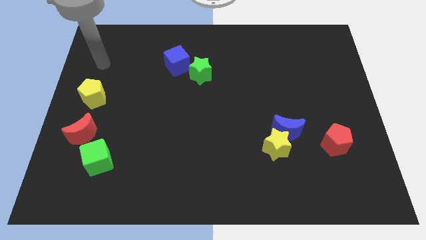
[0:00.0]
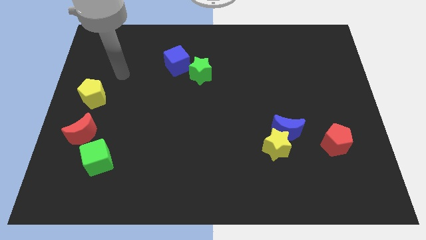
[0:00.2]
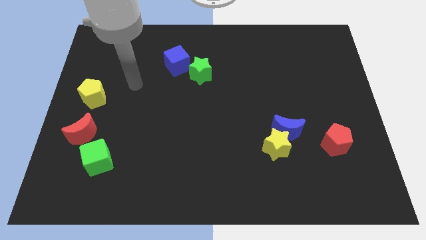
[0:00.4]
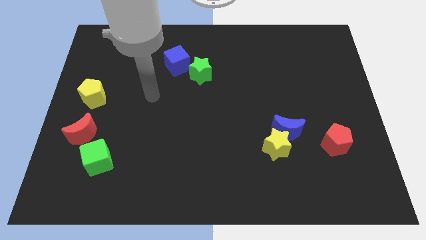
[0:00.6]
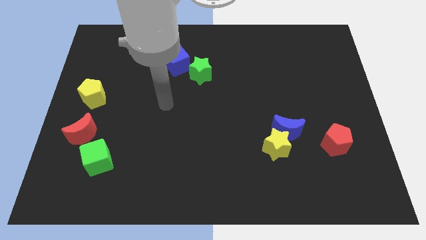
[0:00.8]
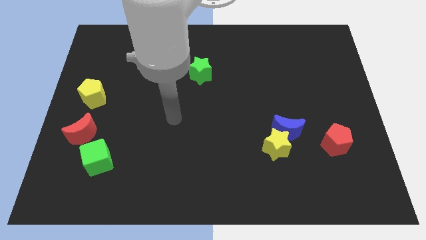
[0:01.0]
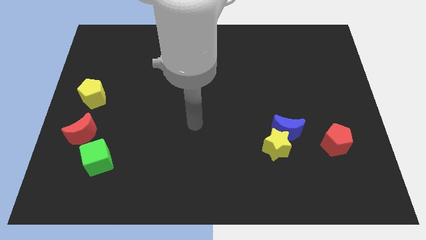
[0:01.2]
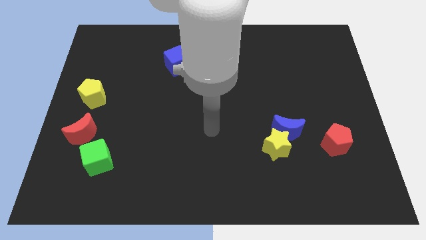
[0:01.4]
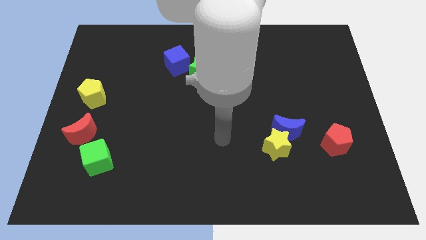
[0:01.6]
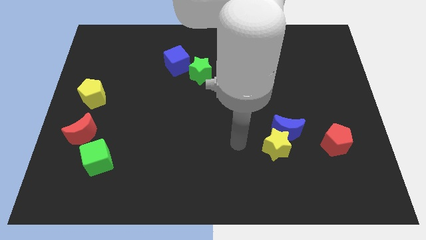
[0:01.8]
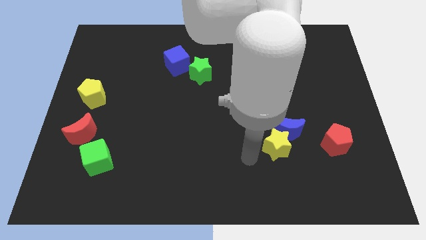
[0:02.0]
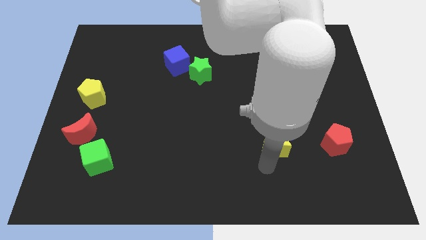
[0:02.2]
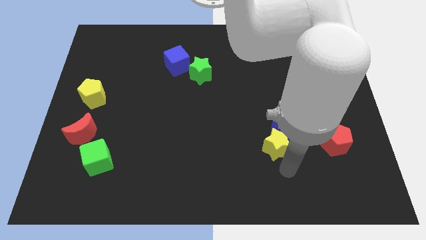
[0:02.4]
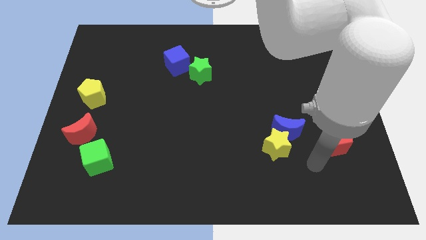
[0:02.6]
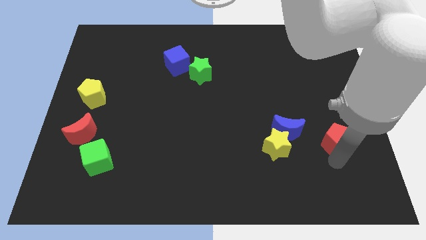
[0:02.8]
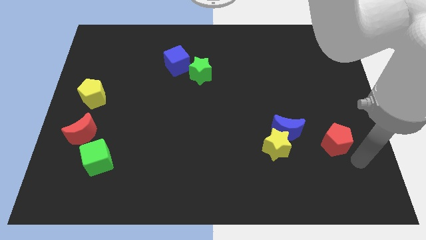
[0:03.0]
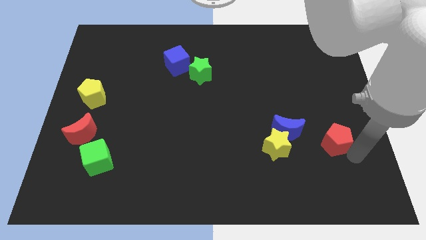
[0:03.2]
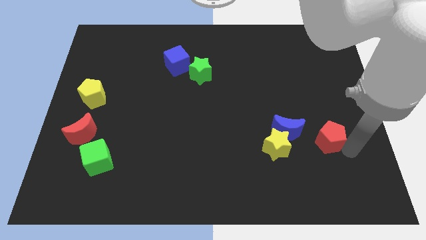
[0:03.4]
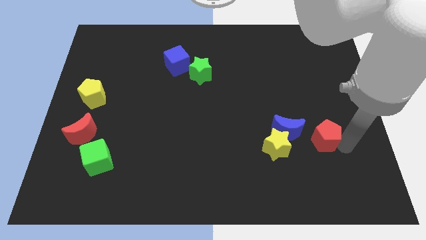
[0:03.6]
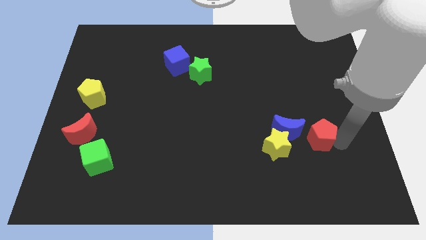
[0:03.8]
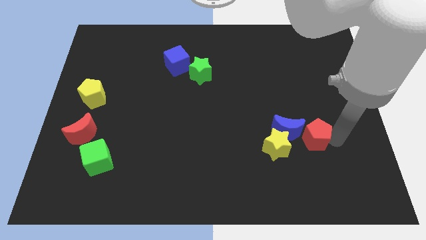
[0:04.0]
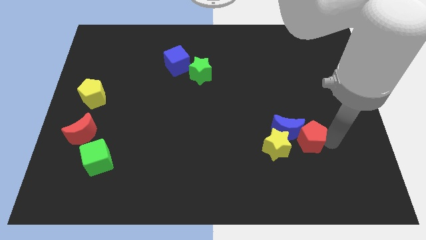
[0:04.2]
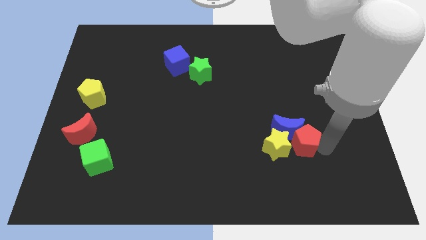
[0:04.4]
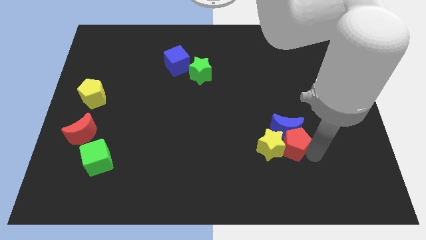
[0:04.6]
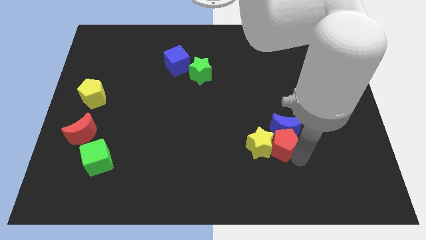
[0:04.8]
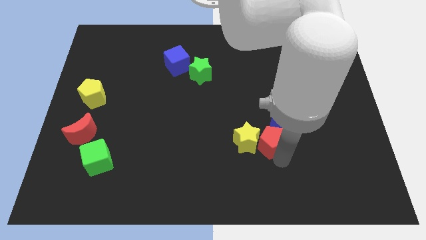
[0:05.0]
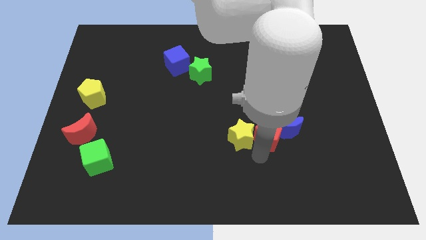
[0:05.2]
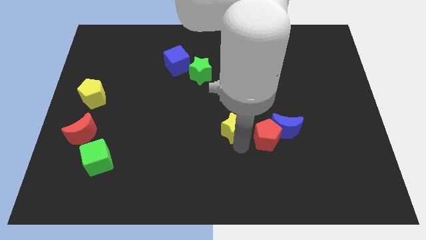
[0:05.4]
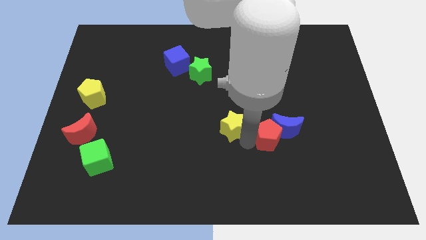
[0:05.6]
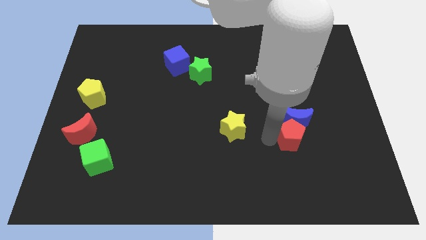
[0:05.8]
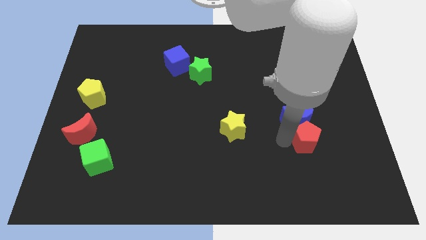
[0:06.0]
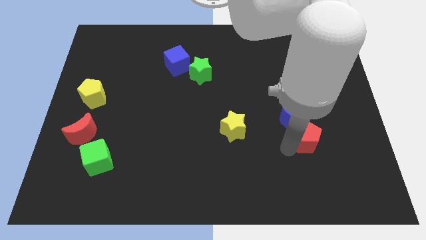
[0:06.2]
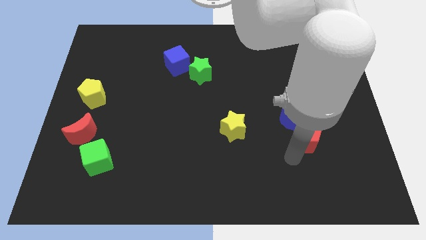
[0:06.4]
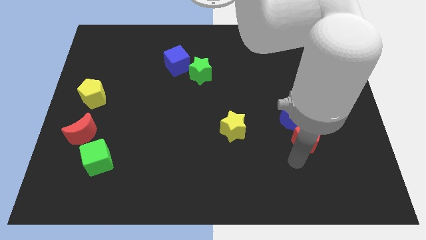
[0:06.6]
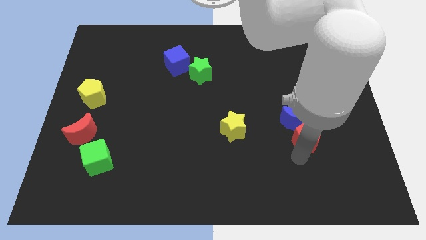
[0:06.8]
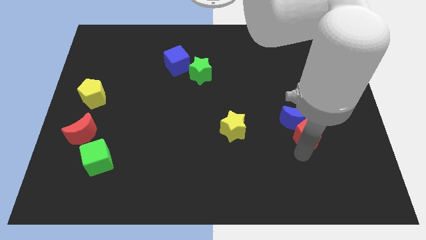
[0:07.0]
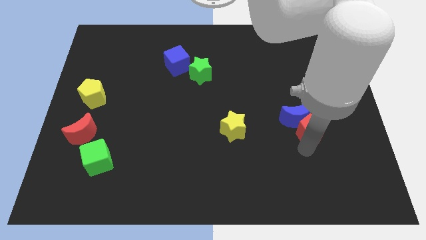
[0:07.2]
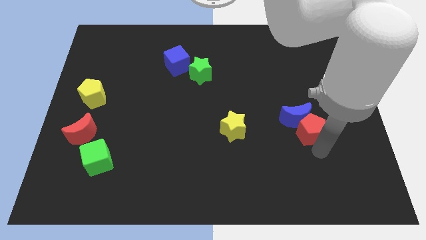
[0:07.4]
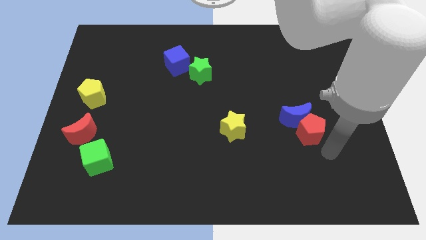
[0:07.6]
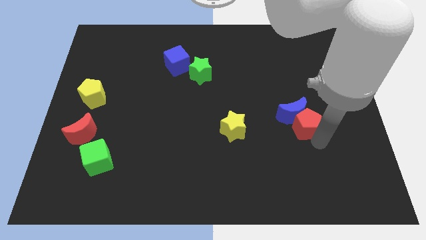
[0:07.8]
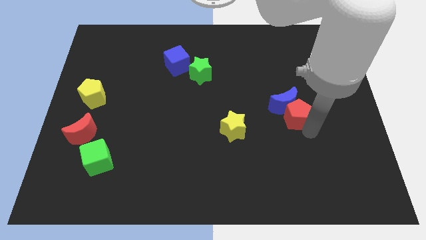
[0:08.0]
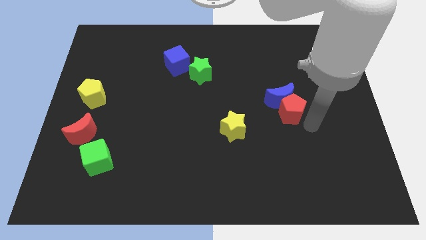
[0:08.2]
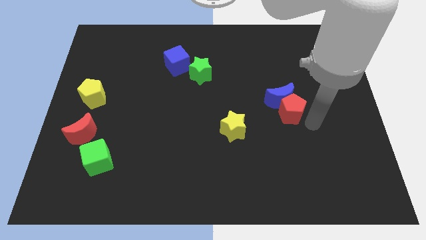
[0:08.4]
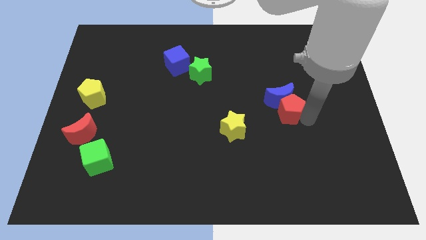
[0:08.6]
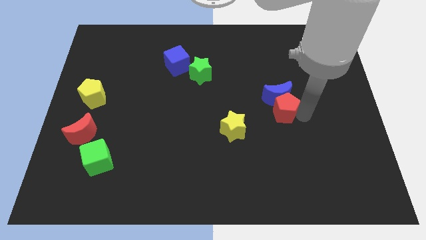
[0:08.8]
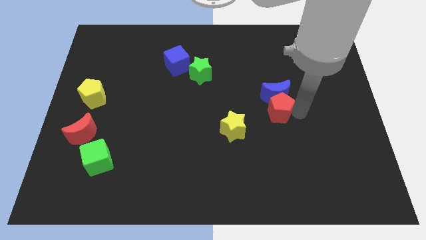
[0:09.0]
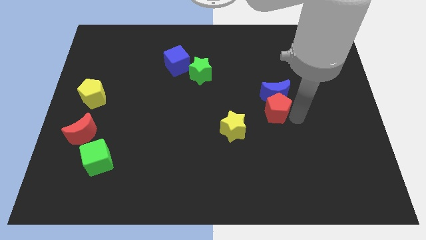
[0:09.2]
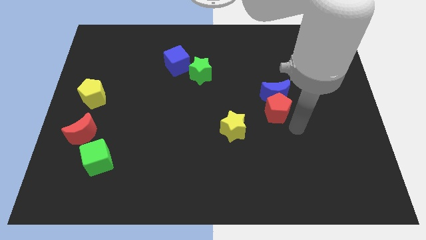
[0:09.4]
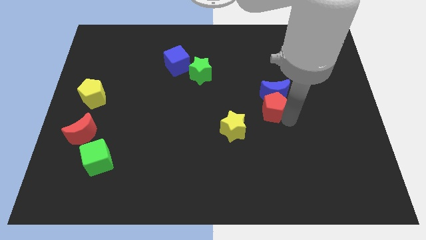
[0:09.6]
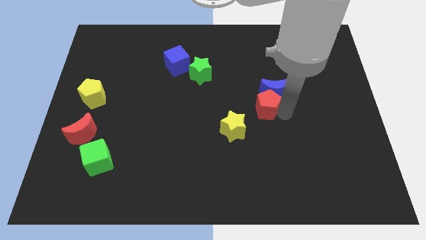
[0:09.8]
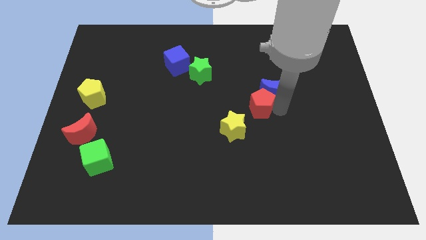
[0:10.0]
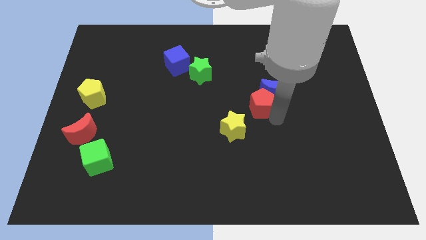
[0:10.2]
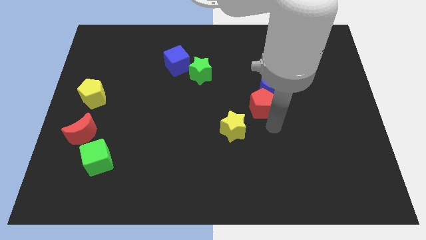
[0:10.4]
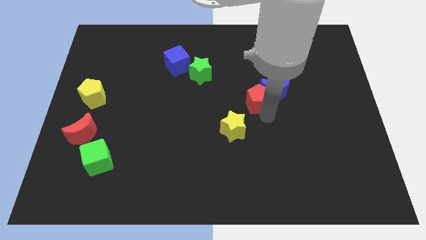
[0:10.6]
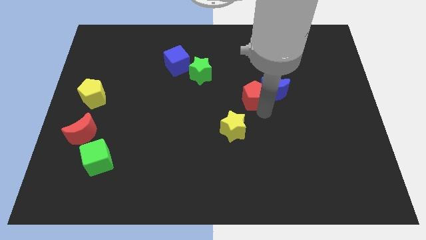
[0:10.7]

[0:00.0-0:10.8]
slide the red pentagon diagonally up and to the left

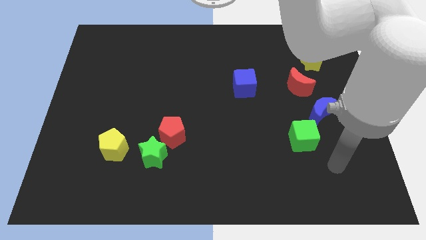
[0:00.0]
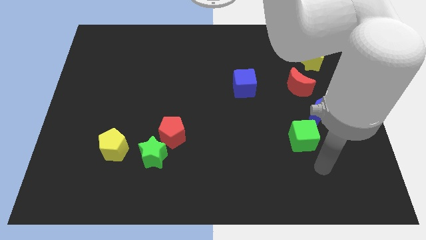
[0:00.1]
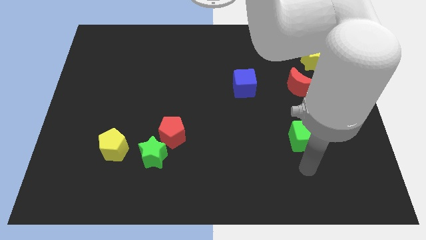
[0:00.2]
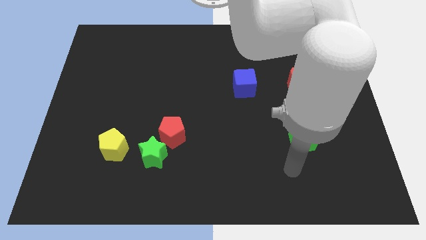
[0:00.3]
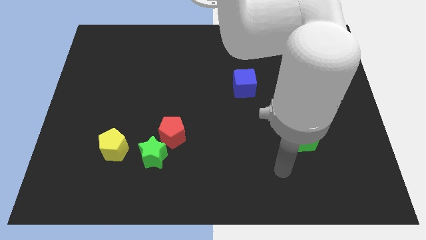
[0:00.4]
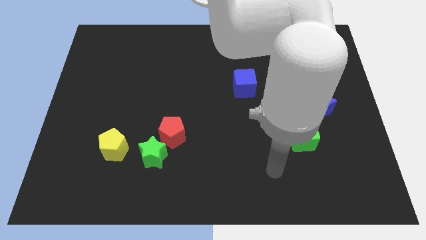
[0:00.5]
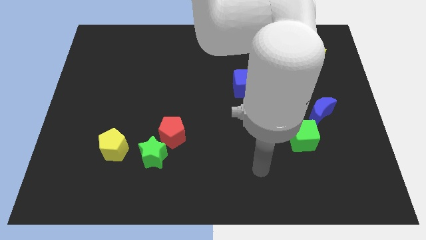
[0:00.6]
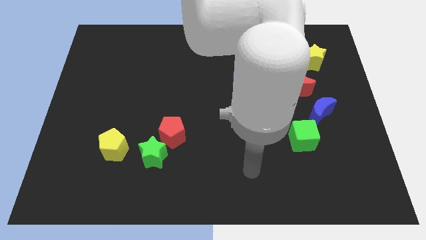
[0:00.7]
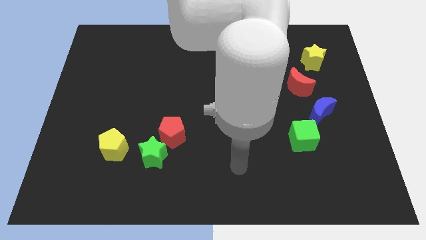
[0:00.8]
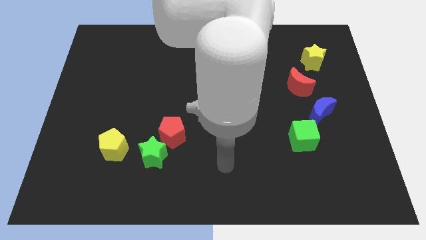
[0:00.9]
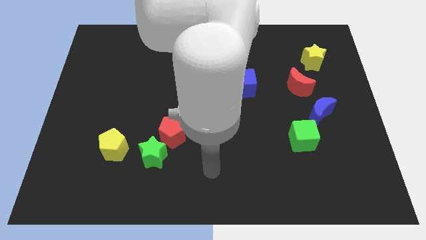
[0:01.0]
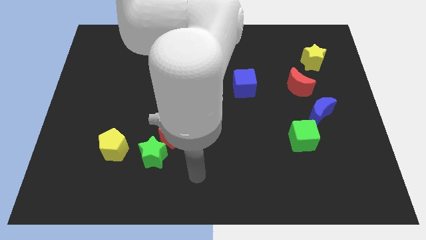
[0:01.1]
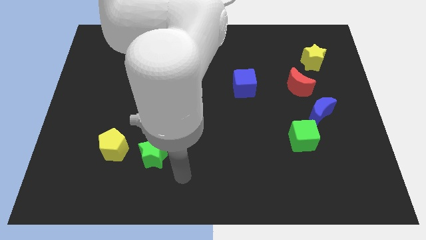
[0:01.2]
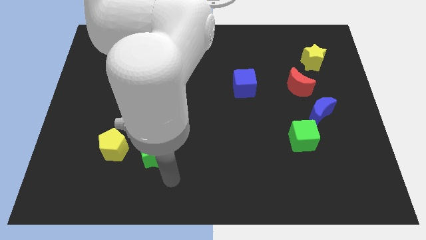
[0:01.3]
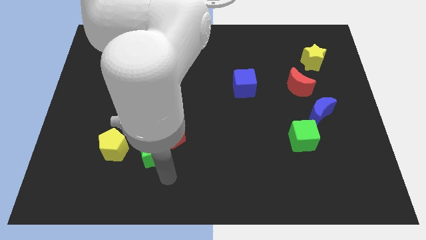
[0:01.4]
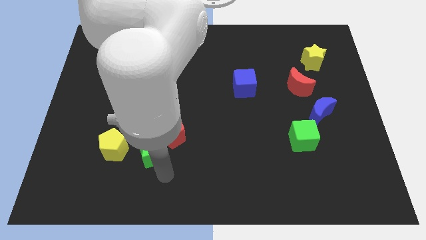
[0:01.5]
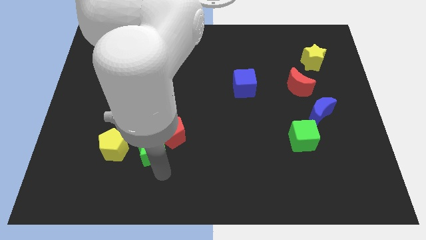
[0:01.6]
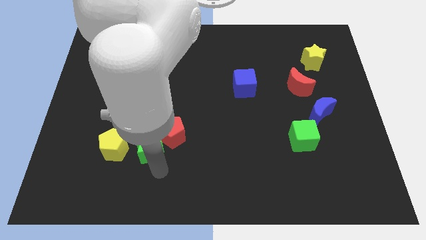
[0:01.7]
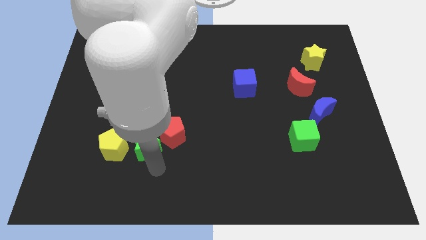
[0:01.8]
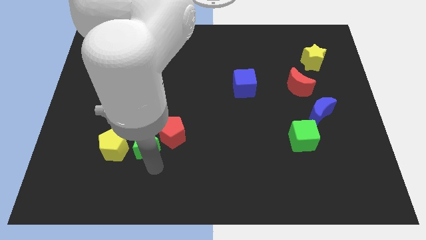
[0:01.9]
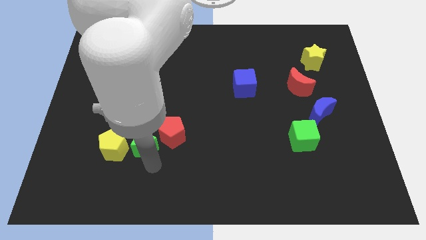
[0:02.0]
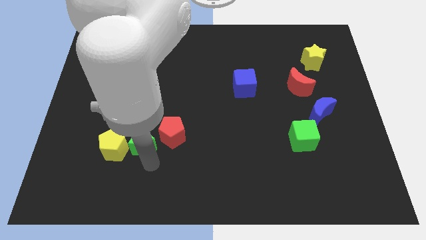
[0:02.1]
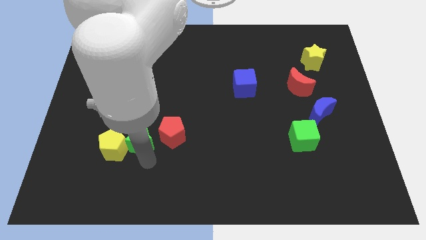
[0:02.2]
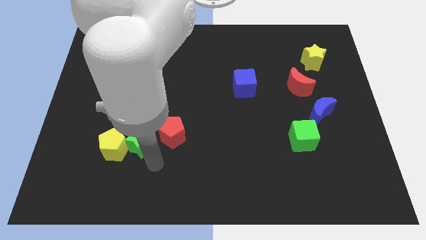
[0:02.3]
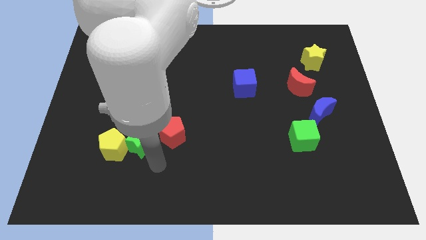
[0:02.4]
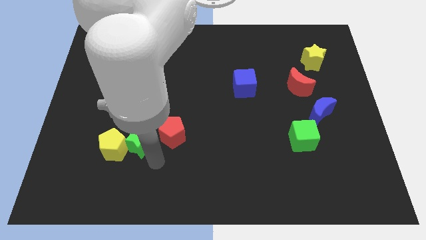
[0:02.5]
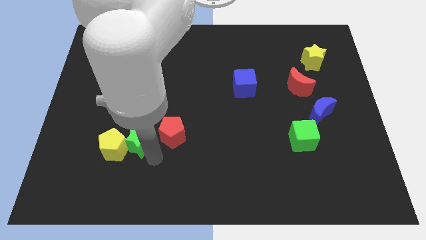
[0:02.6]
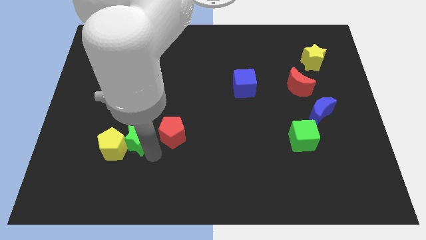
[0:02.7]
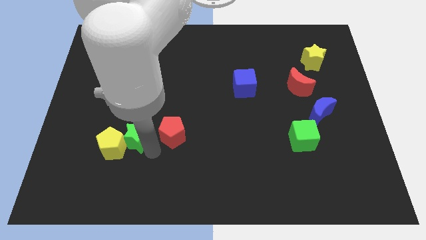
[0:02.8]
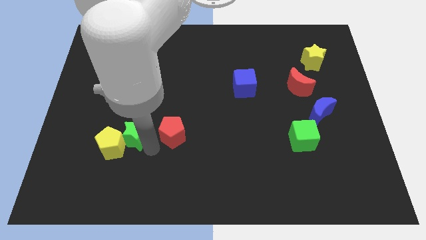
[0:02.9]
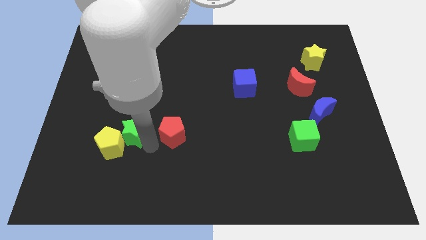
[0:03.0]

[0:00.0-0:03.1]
move the green star a little up and then to the left
